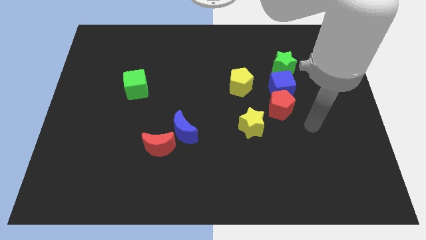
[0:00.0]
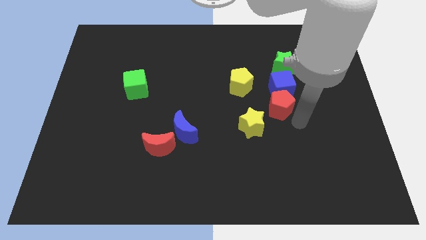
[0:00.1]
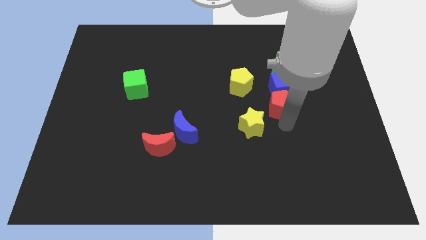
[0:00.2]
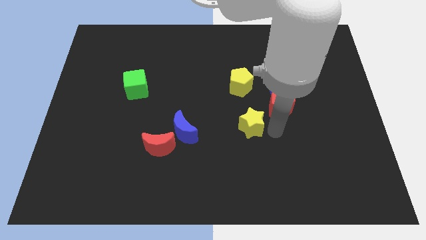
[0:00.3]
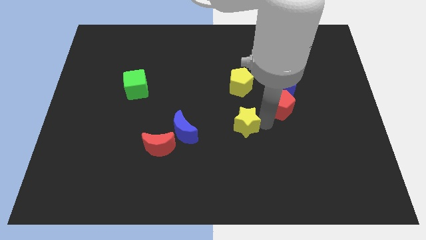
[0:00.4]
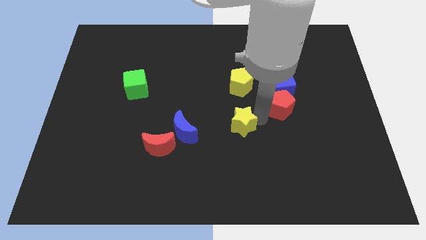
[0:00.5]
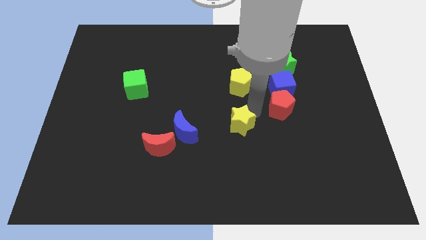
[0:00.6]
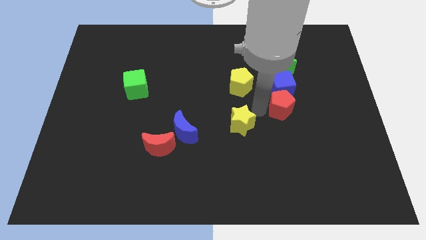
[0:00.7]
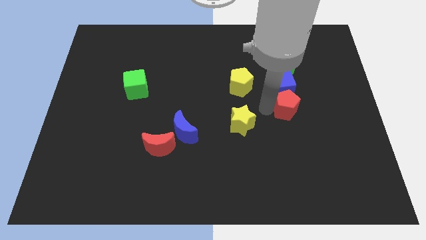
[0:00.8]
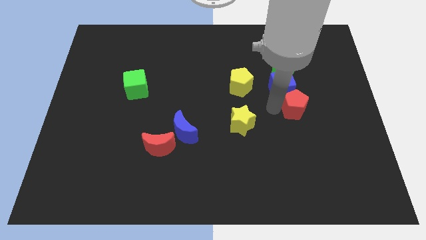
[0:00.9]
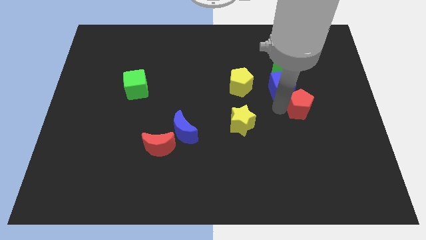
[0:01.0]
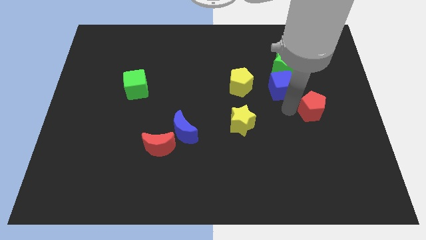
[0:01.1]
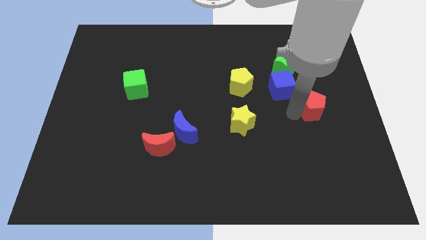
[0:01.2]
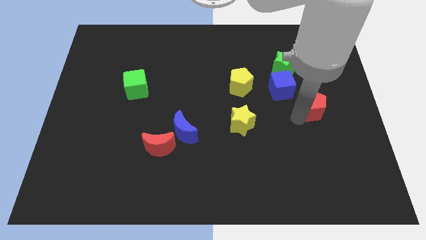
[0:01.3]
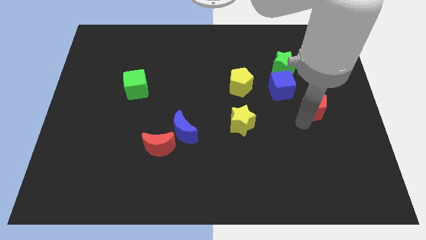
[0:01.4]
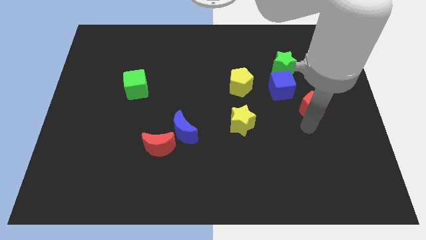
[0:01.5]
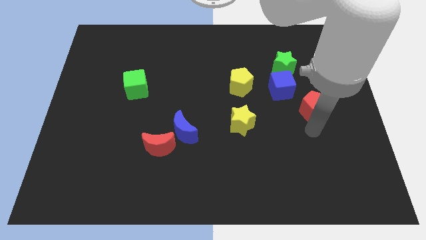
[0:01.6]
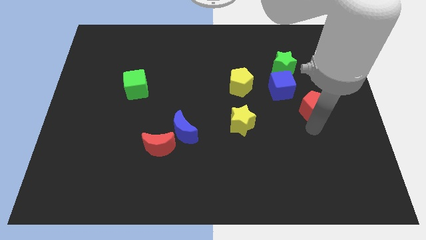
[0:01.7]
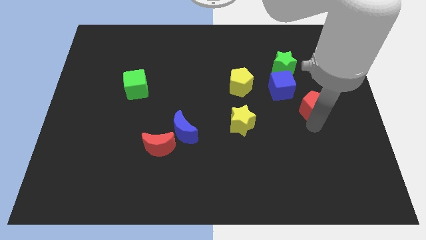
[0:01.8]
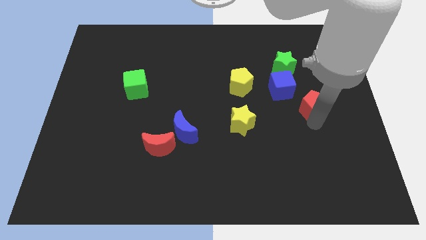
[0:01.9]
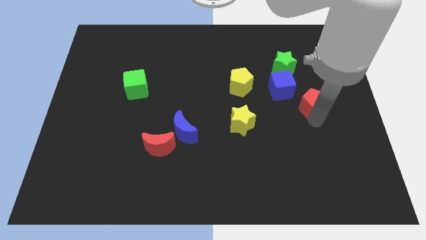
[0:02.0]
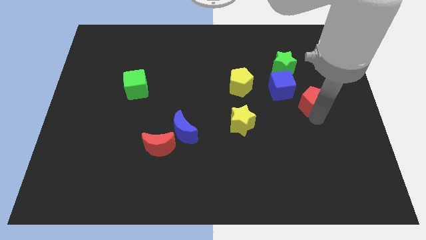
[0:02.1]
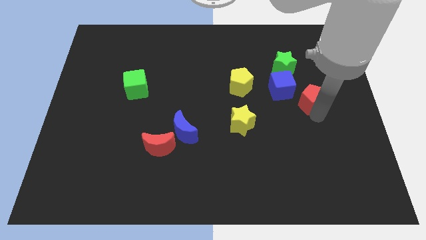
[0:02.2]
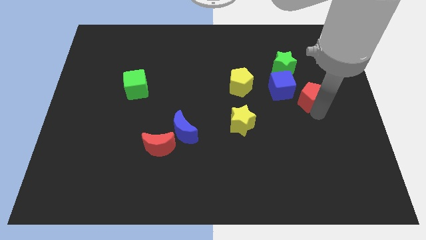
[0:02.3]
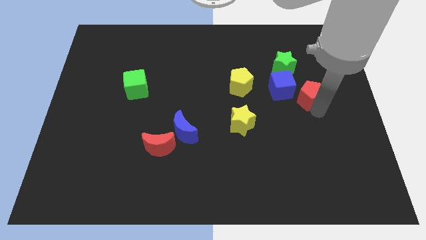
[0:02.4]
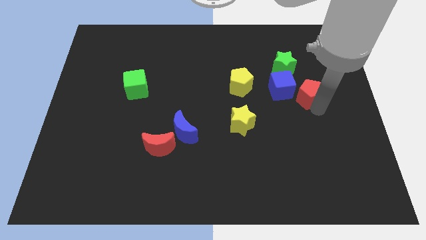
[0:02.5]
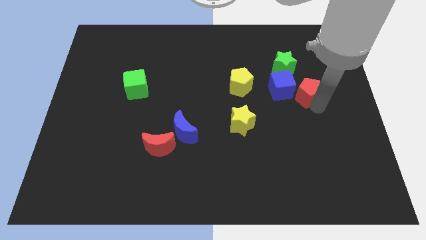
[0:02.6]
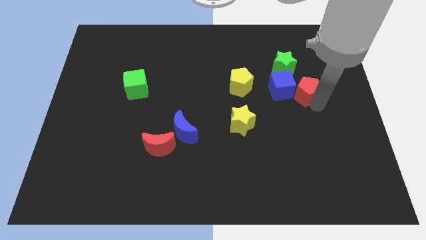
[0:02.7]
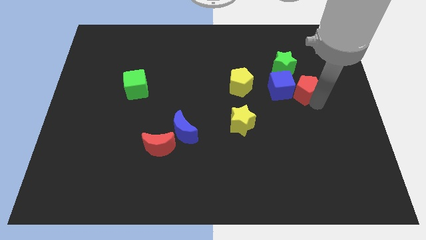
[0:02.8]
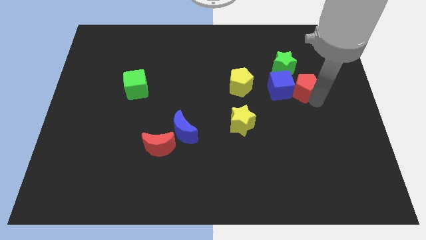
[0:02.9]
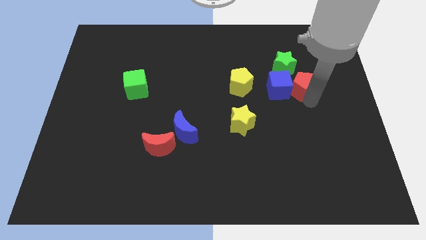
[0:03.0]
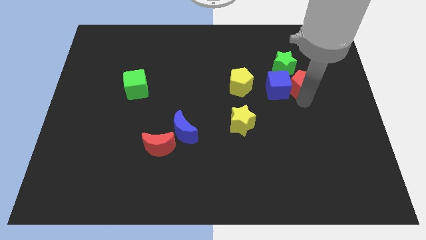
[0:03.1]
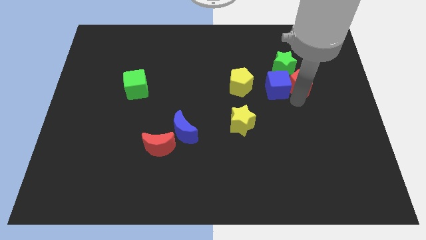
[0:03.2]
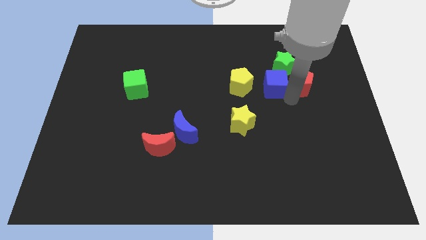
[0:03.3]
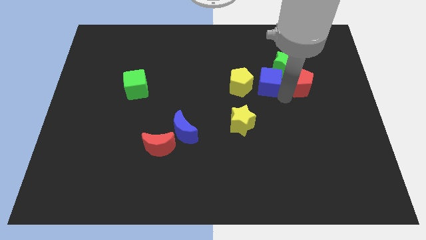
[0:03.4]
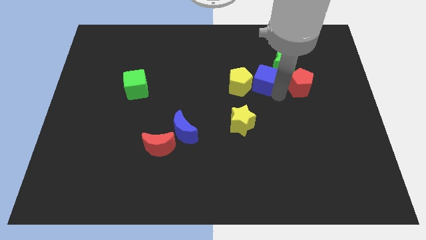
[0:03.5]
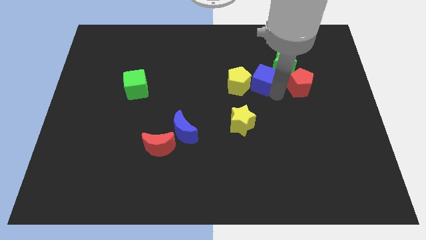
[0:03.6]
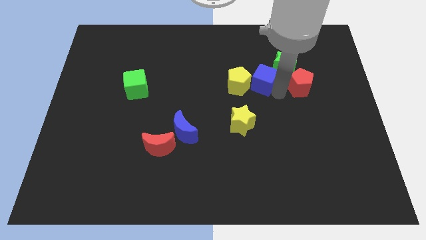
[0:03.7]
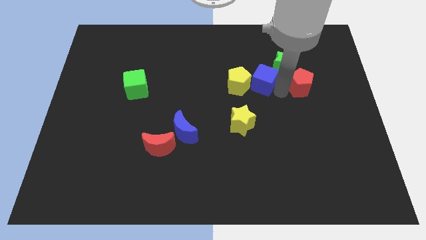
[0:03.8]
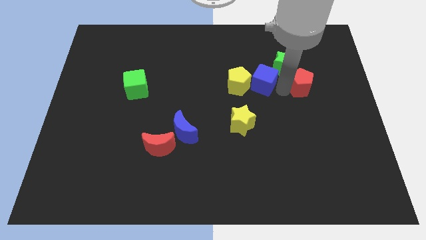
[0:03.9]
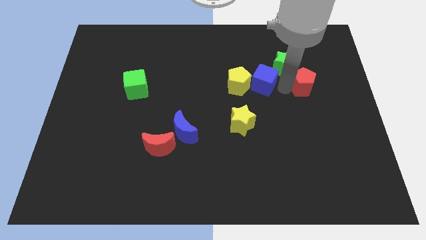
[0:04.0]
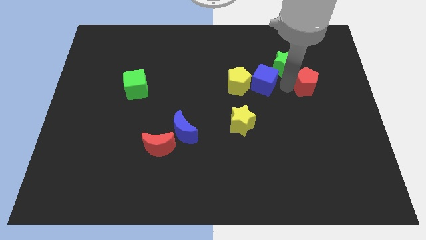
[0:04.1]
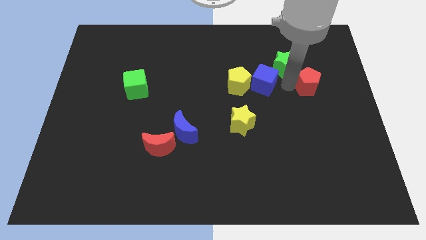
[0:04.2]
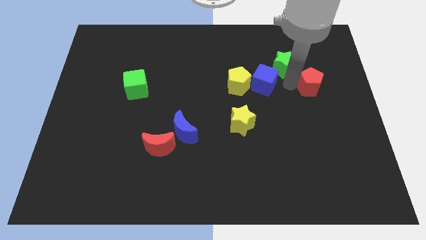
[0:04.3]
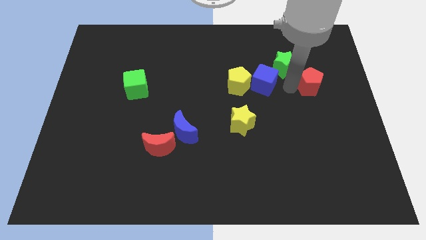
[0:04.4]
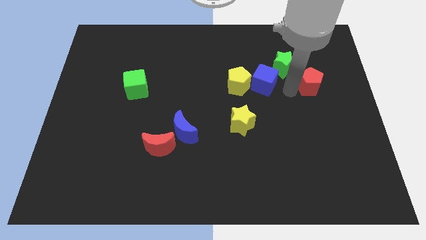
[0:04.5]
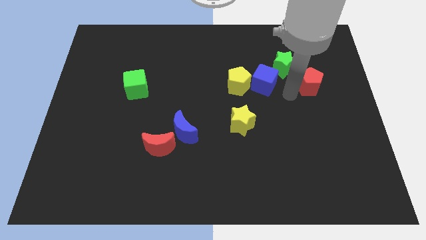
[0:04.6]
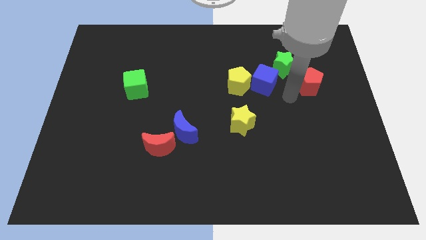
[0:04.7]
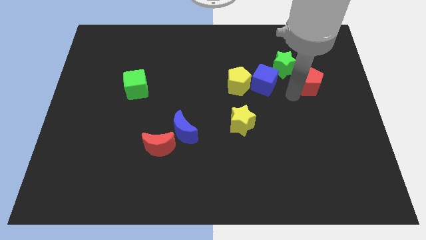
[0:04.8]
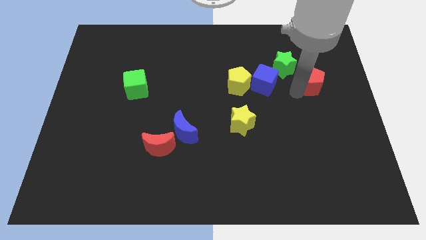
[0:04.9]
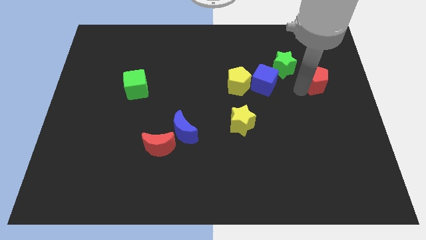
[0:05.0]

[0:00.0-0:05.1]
put the red pentagon just right of the green star

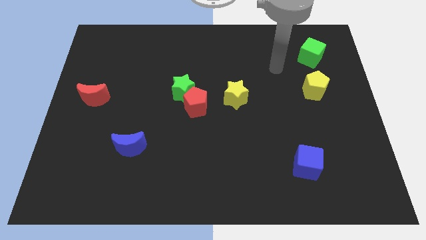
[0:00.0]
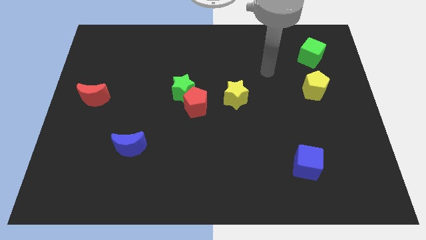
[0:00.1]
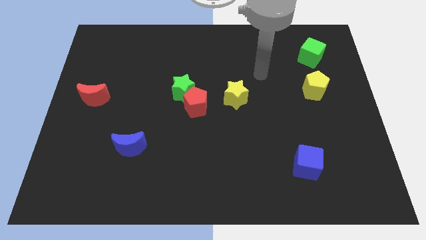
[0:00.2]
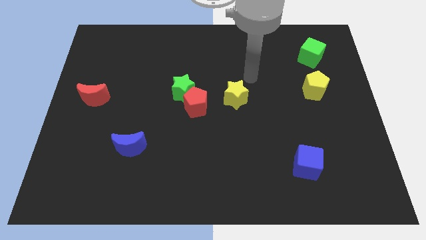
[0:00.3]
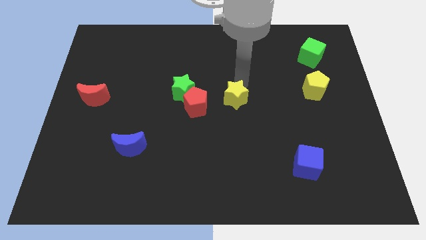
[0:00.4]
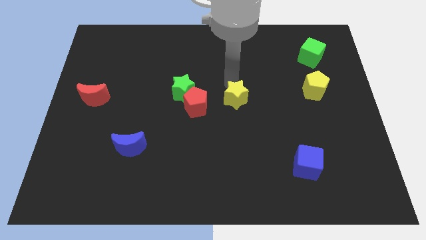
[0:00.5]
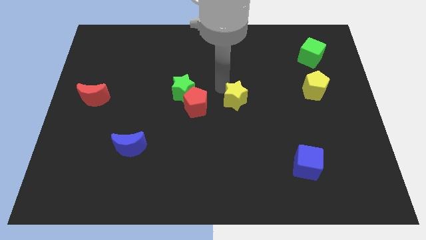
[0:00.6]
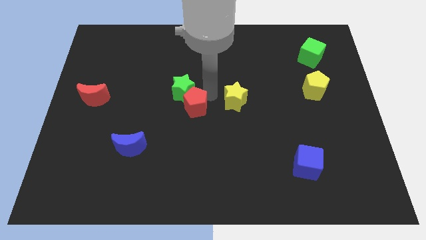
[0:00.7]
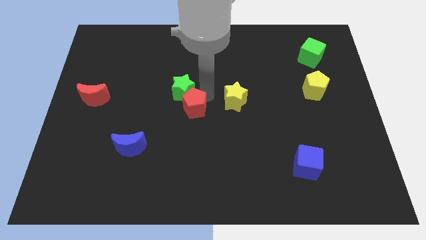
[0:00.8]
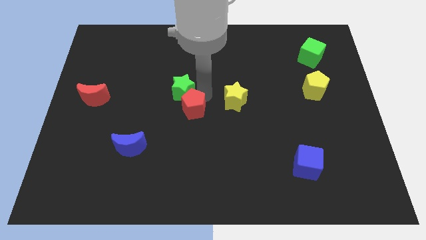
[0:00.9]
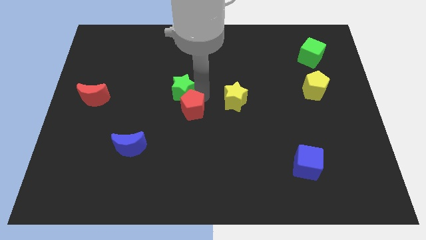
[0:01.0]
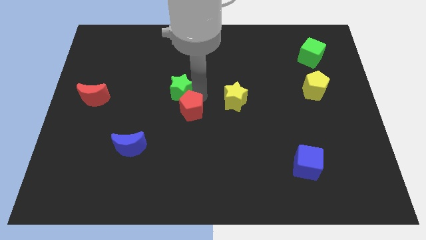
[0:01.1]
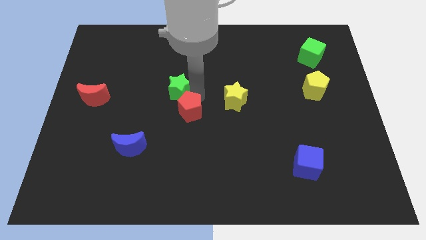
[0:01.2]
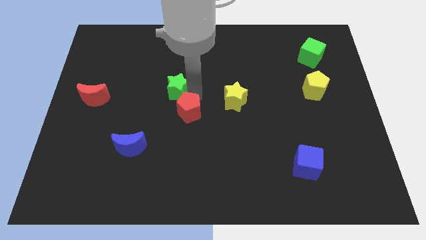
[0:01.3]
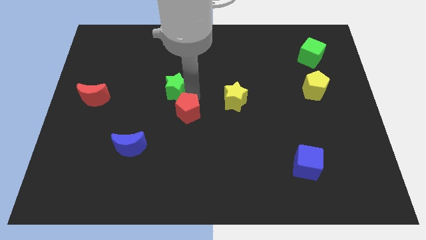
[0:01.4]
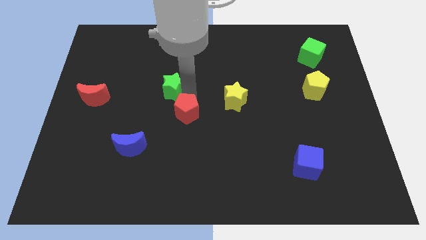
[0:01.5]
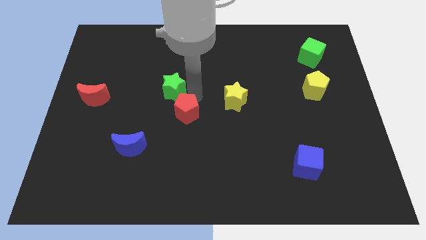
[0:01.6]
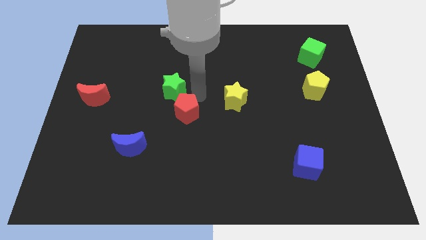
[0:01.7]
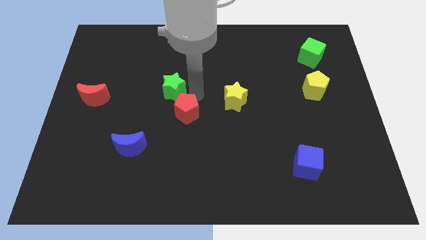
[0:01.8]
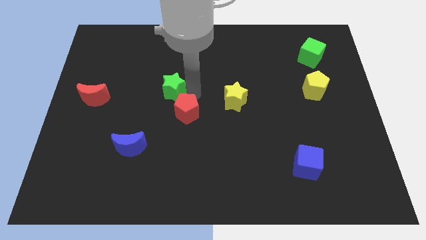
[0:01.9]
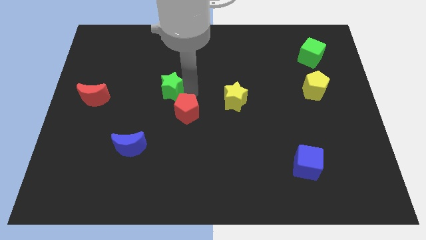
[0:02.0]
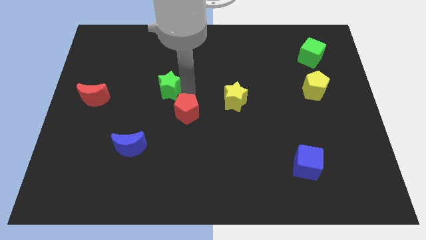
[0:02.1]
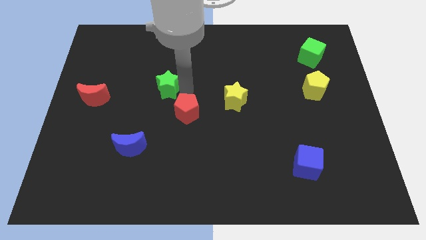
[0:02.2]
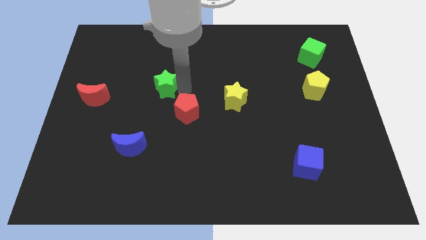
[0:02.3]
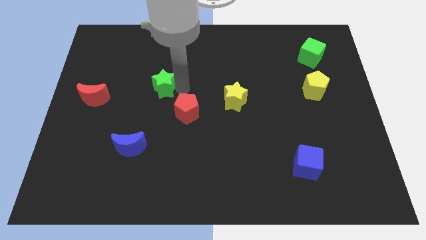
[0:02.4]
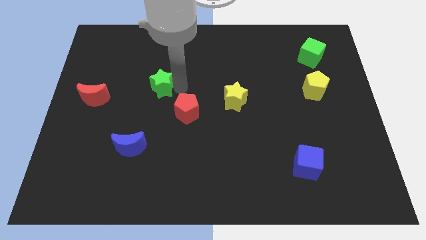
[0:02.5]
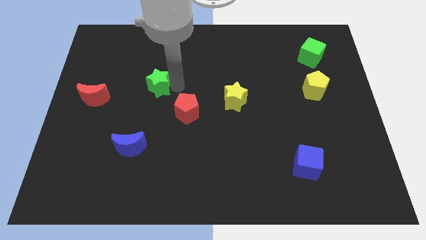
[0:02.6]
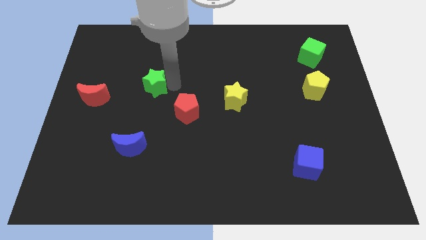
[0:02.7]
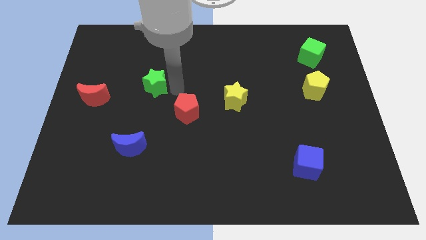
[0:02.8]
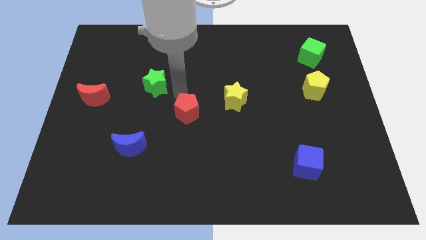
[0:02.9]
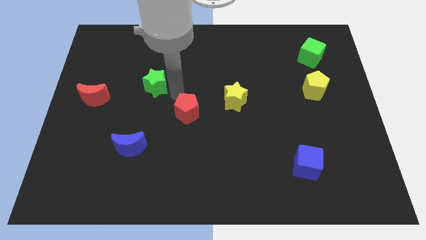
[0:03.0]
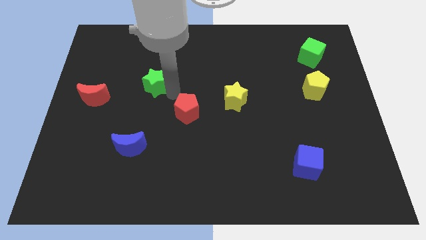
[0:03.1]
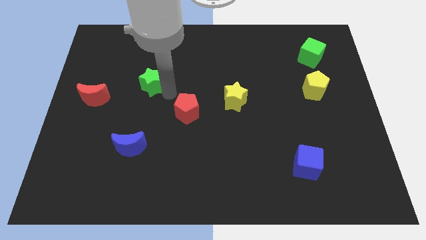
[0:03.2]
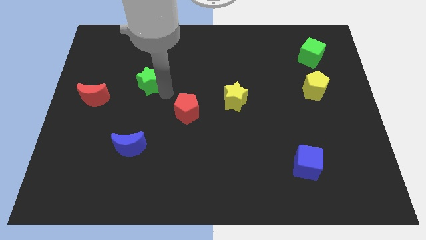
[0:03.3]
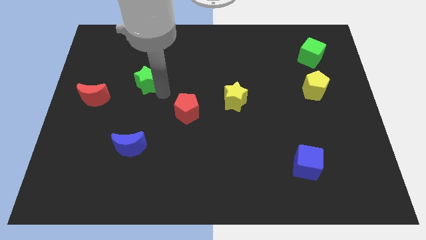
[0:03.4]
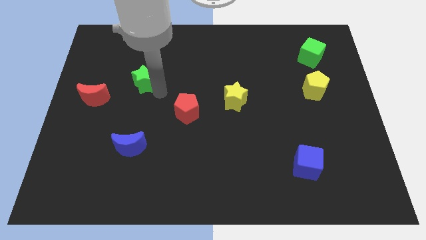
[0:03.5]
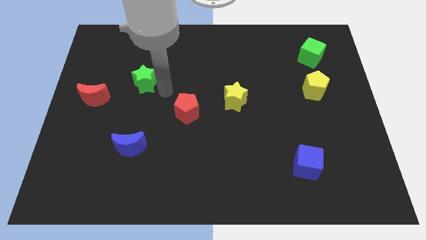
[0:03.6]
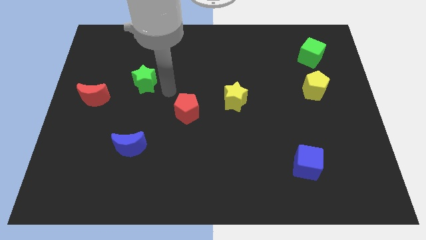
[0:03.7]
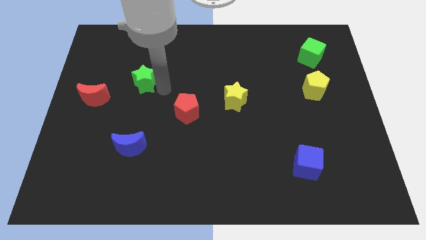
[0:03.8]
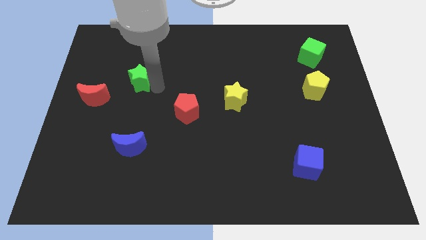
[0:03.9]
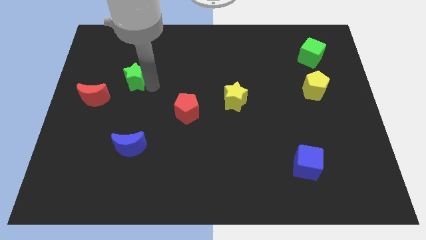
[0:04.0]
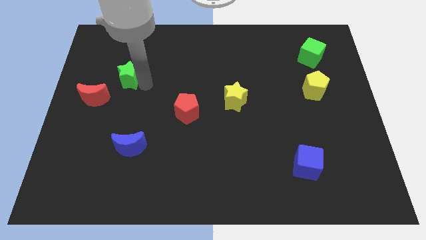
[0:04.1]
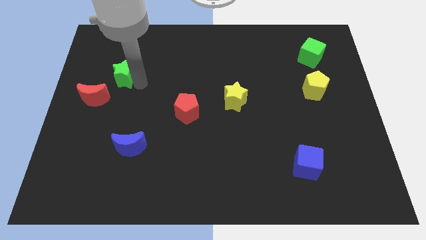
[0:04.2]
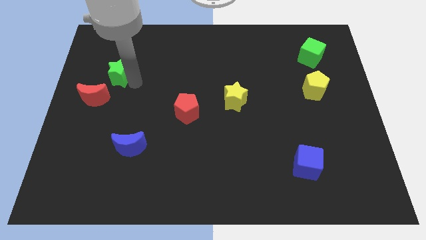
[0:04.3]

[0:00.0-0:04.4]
slide the green star to the top side of the red moon
